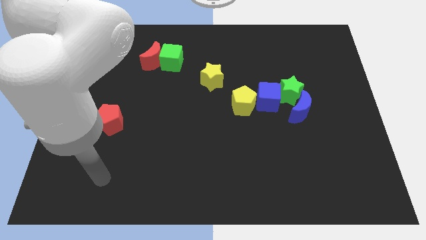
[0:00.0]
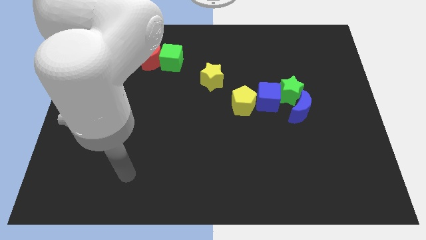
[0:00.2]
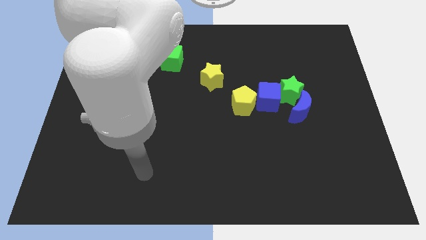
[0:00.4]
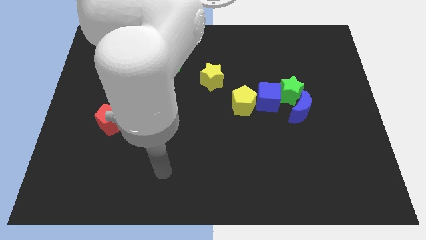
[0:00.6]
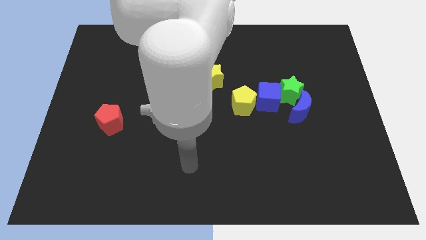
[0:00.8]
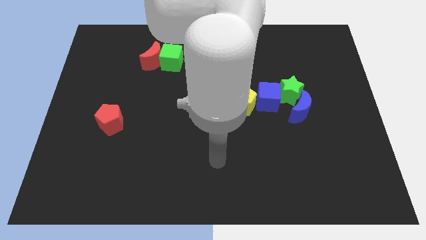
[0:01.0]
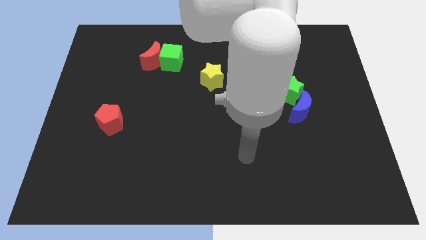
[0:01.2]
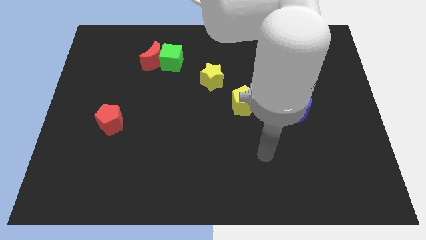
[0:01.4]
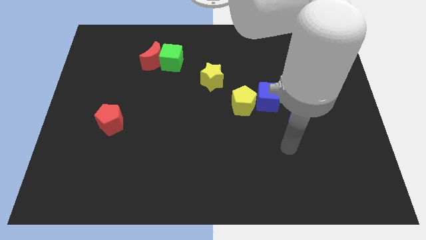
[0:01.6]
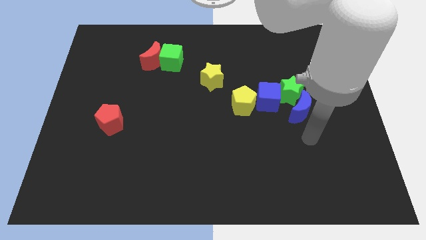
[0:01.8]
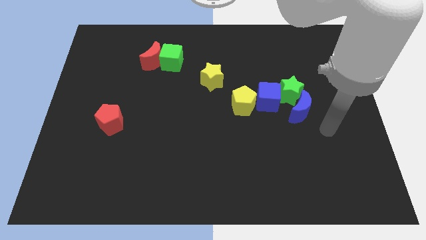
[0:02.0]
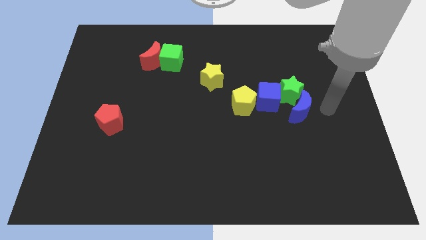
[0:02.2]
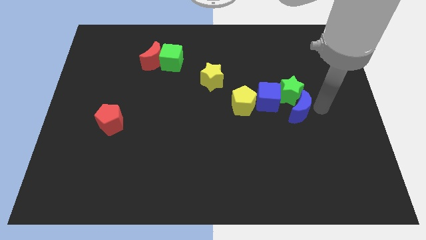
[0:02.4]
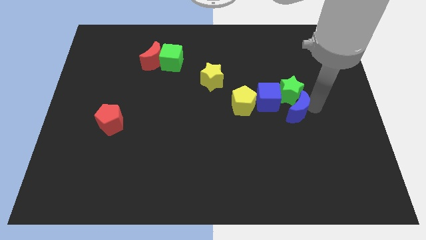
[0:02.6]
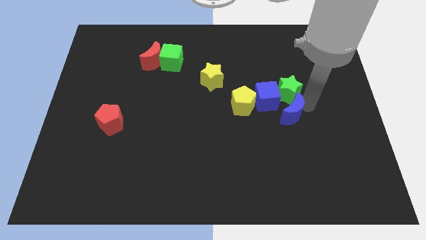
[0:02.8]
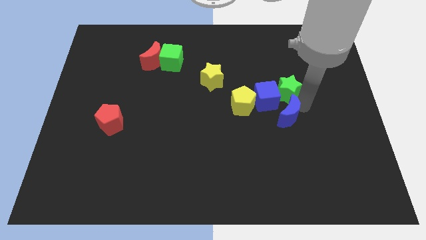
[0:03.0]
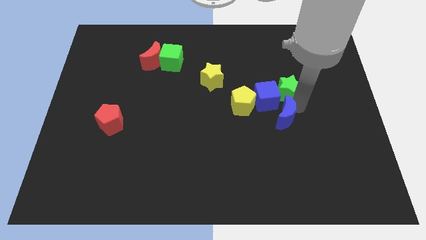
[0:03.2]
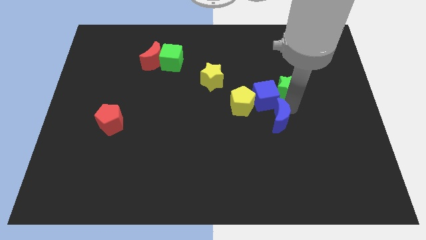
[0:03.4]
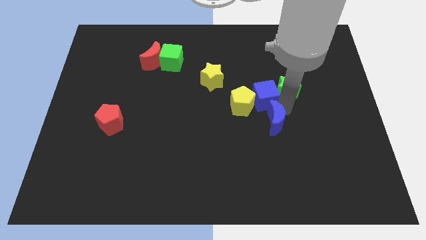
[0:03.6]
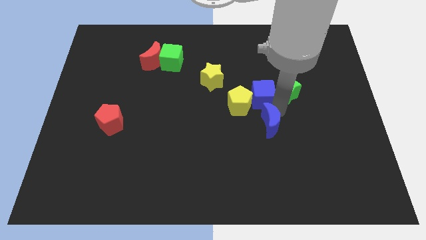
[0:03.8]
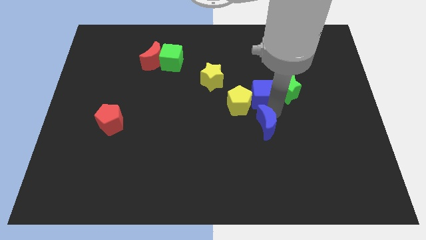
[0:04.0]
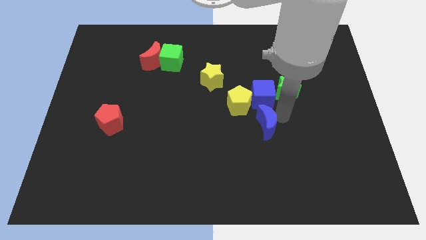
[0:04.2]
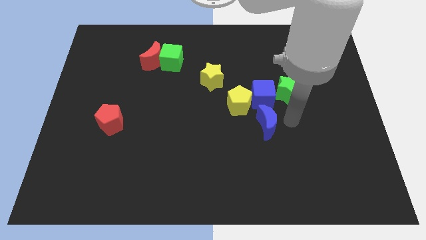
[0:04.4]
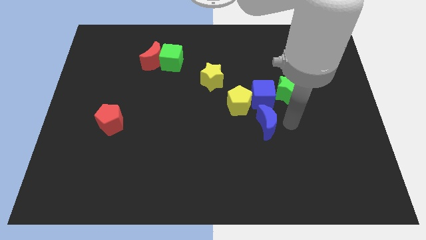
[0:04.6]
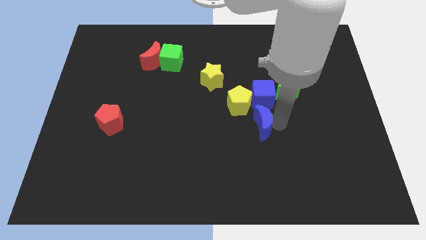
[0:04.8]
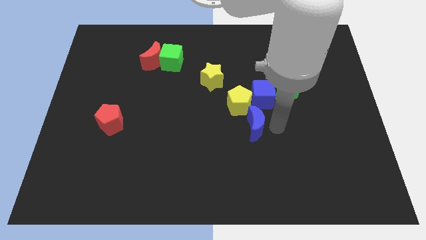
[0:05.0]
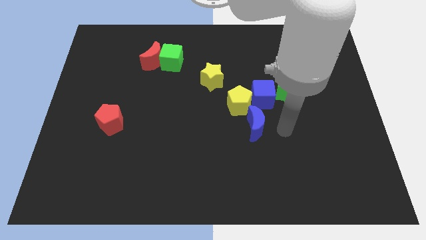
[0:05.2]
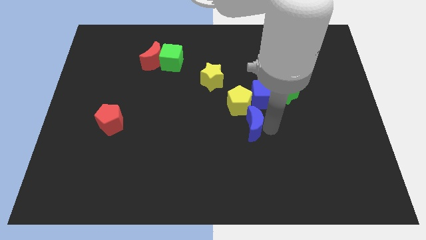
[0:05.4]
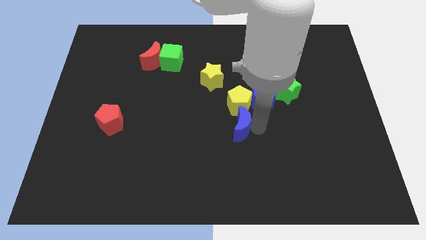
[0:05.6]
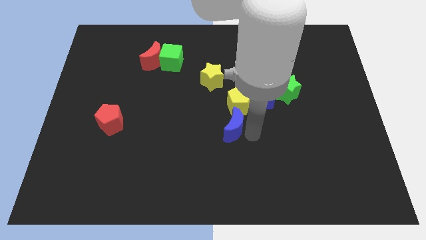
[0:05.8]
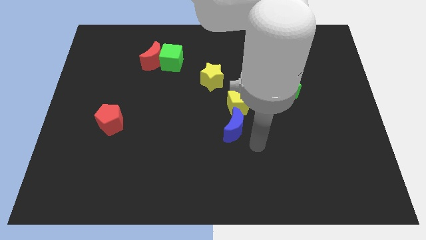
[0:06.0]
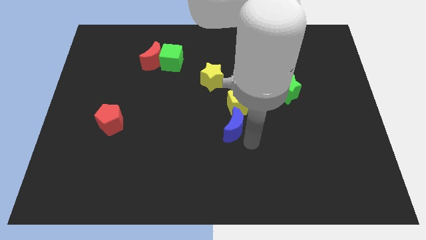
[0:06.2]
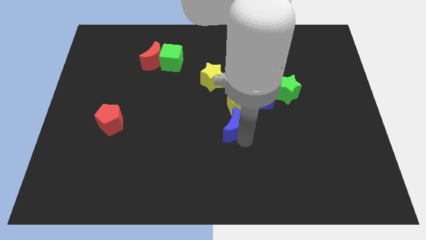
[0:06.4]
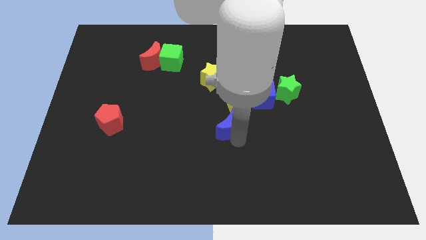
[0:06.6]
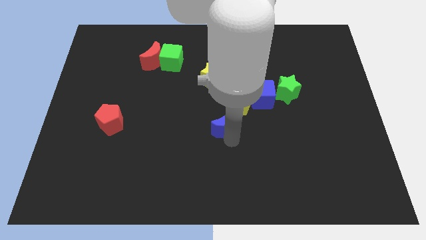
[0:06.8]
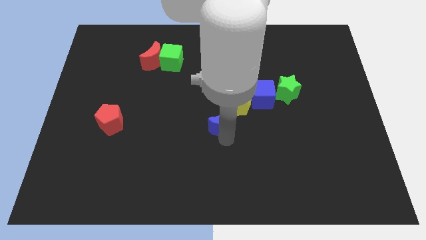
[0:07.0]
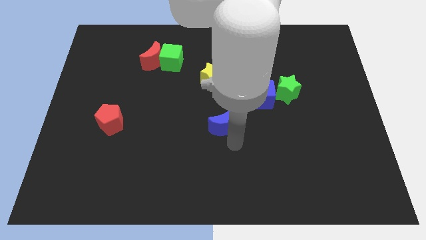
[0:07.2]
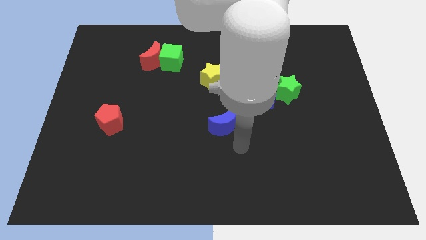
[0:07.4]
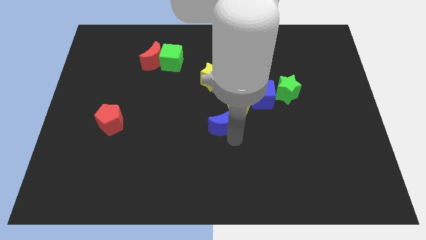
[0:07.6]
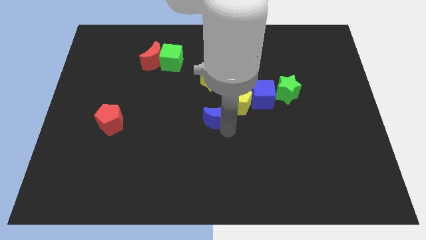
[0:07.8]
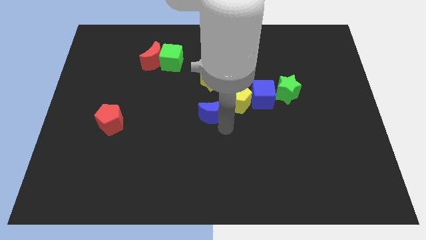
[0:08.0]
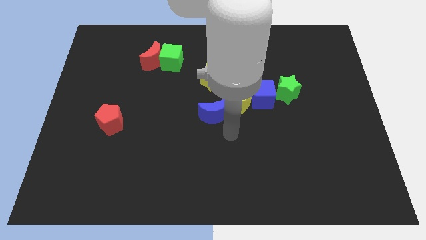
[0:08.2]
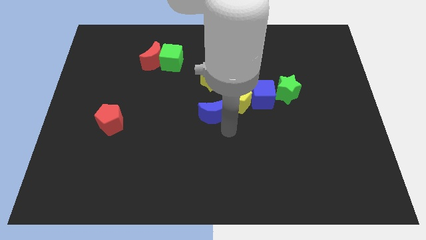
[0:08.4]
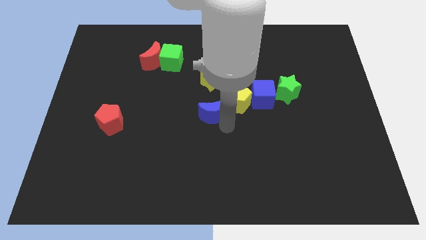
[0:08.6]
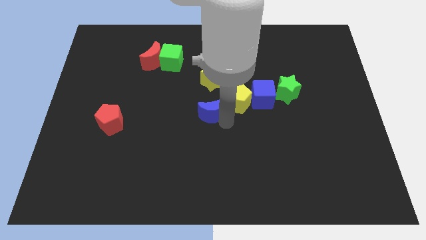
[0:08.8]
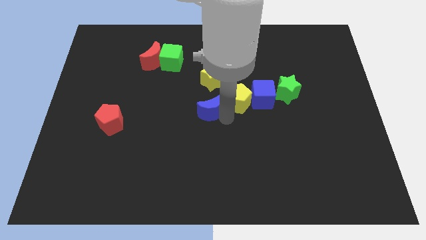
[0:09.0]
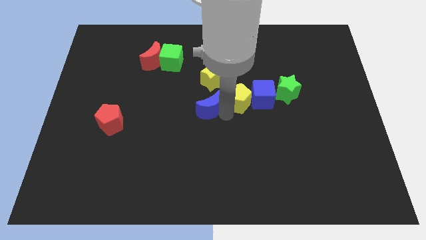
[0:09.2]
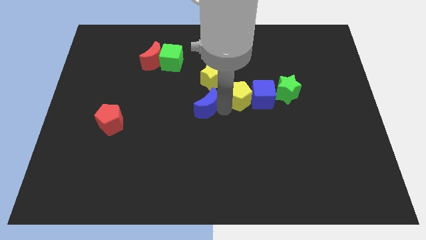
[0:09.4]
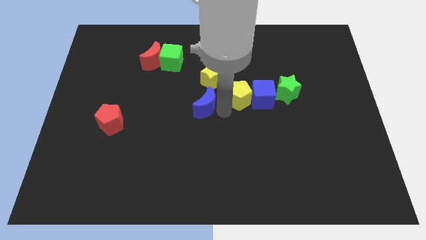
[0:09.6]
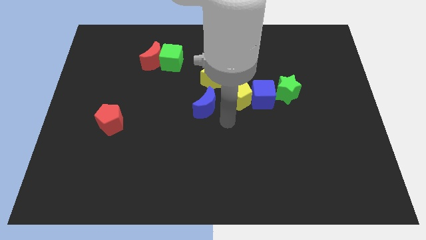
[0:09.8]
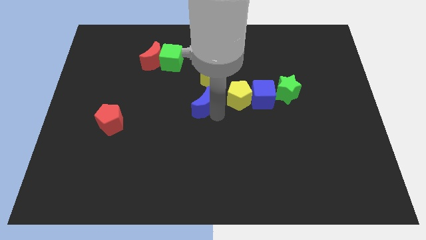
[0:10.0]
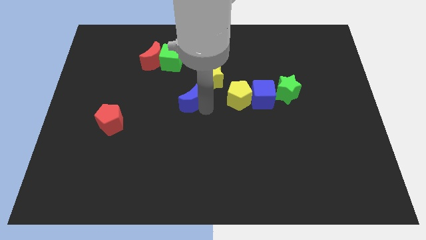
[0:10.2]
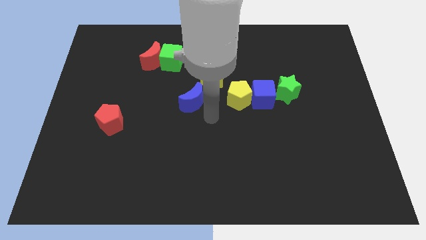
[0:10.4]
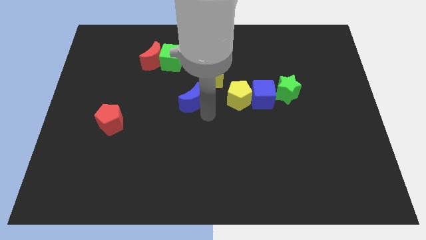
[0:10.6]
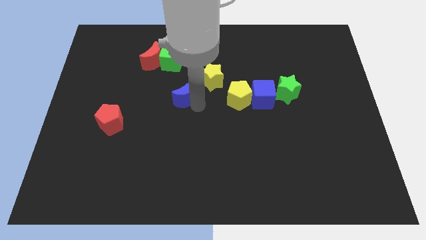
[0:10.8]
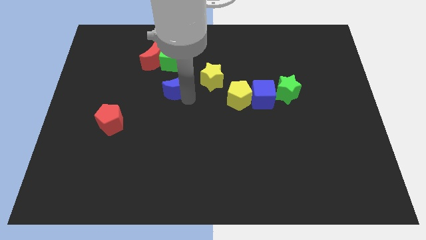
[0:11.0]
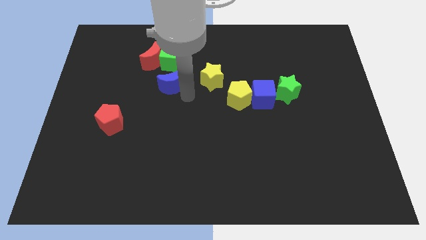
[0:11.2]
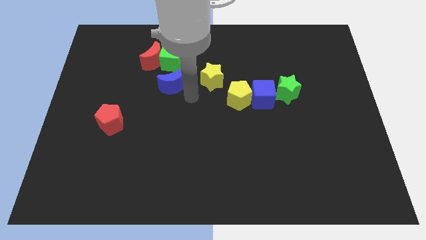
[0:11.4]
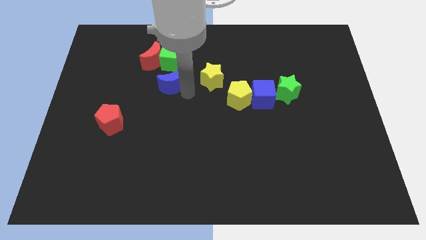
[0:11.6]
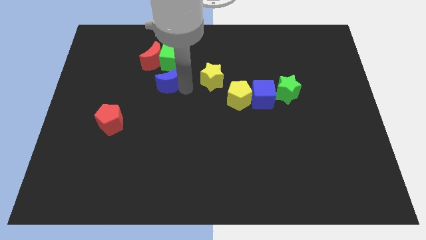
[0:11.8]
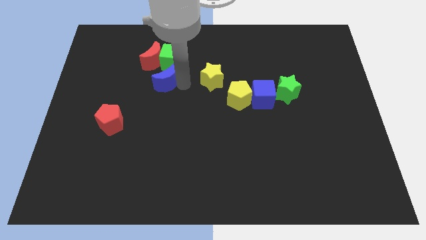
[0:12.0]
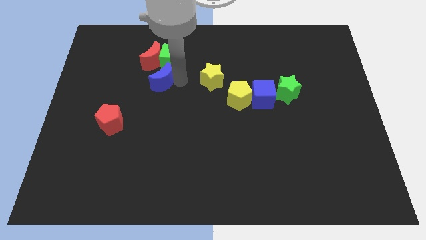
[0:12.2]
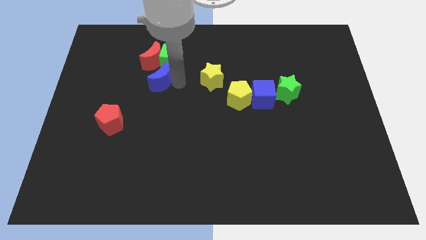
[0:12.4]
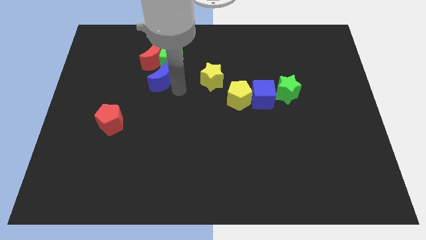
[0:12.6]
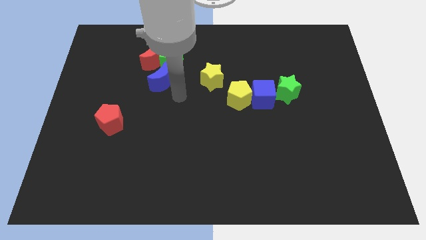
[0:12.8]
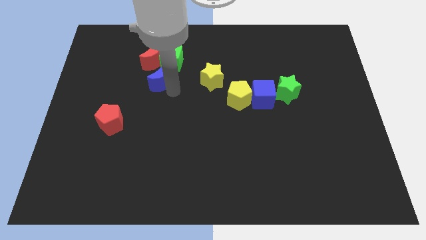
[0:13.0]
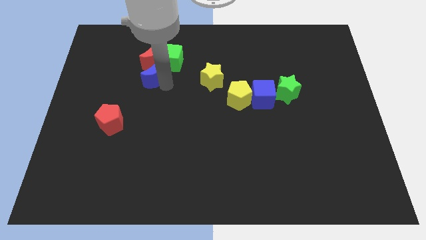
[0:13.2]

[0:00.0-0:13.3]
put the blue moon close to the red moon

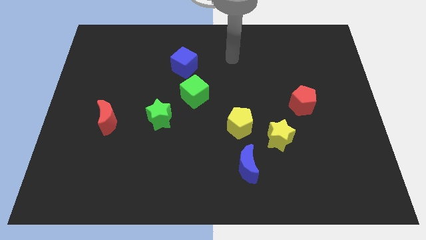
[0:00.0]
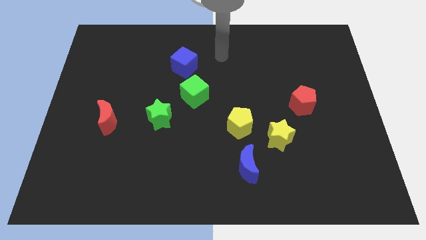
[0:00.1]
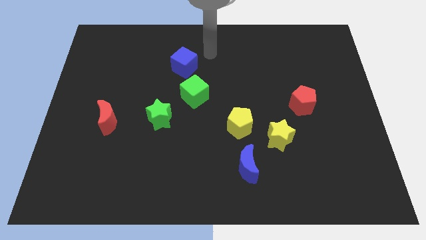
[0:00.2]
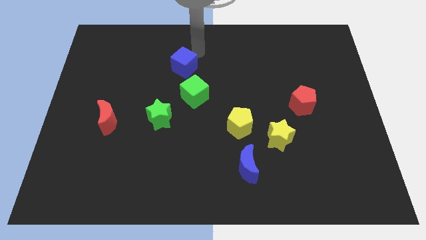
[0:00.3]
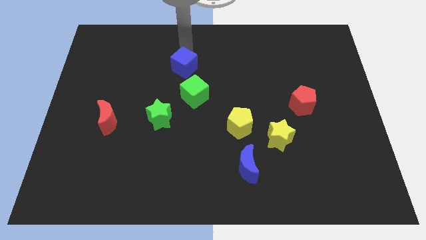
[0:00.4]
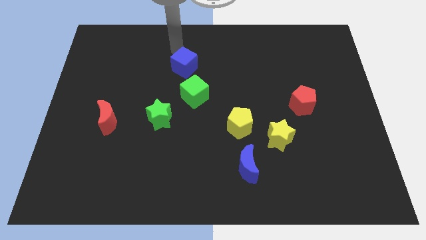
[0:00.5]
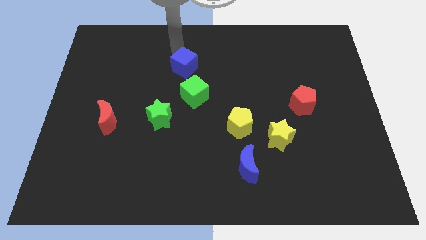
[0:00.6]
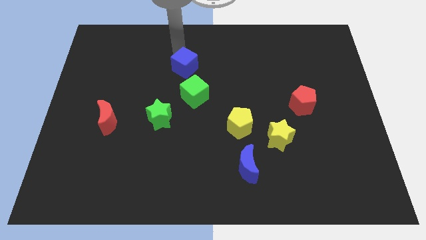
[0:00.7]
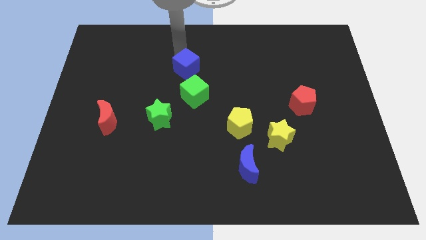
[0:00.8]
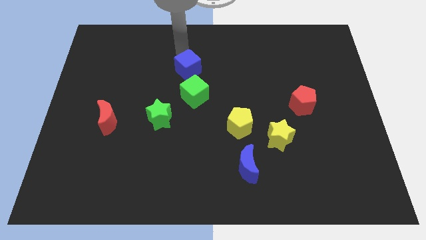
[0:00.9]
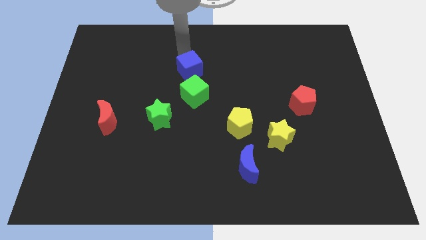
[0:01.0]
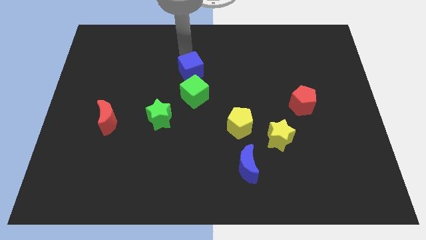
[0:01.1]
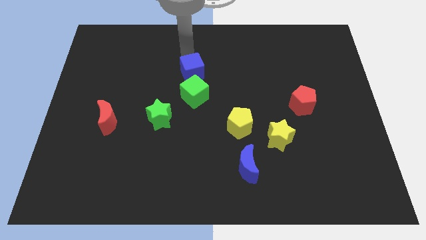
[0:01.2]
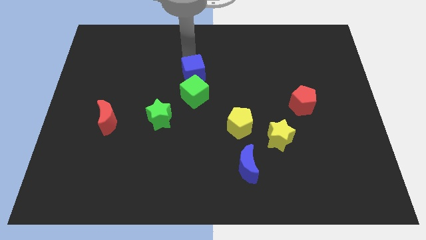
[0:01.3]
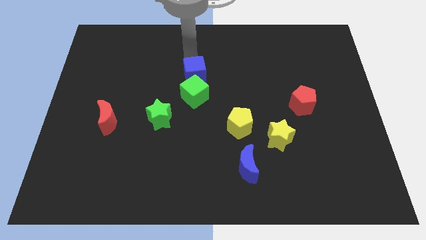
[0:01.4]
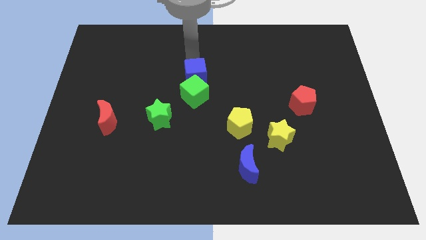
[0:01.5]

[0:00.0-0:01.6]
move the blue cube to the green cube

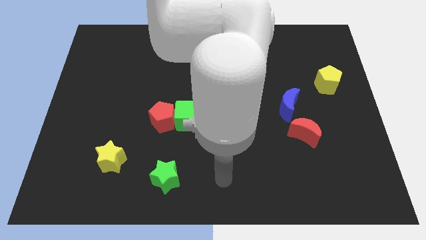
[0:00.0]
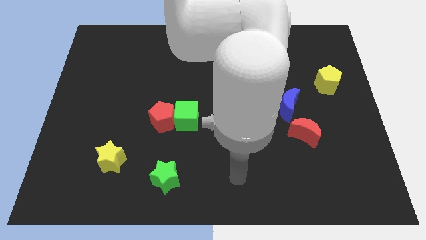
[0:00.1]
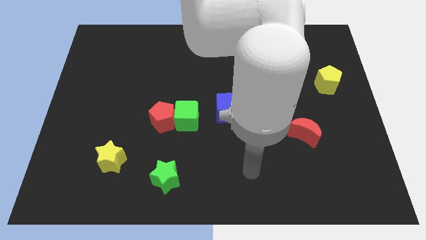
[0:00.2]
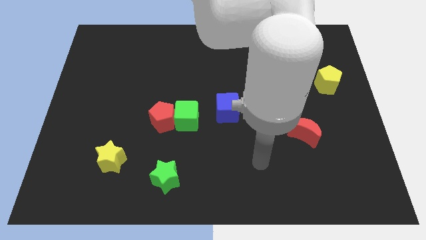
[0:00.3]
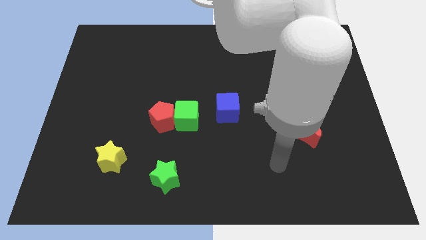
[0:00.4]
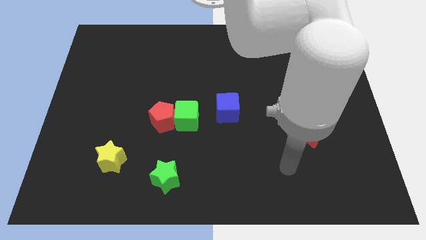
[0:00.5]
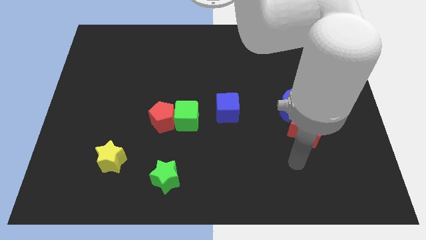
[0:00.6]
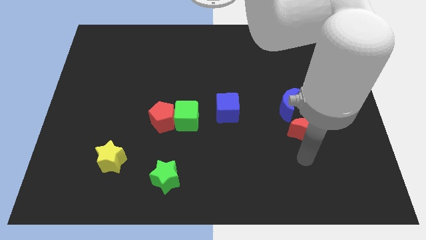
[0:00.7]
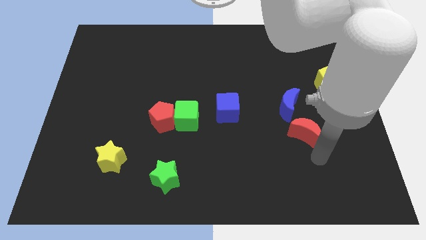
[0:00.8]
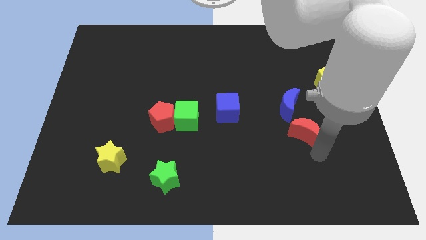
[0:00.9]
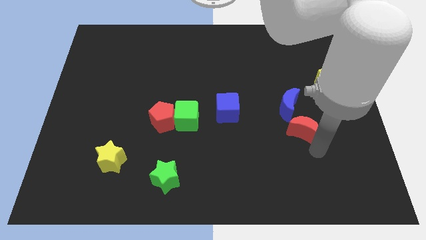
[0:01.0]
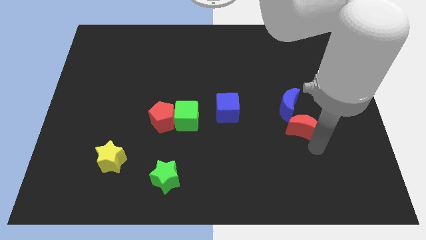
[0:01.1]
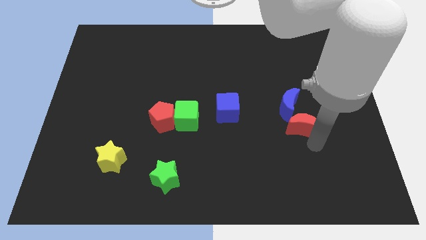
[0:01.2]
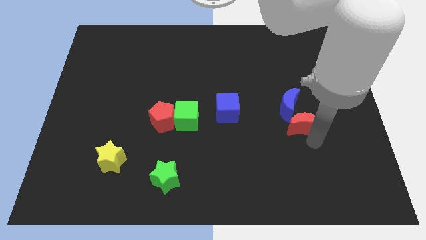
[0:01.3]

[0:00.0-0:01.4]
push the red moon next to the blue moon
